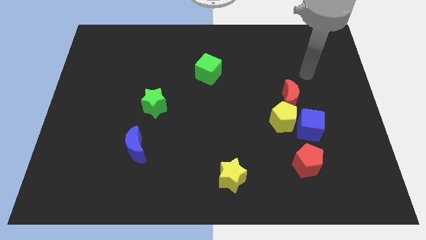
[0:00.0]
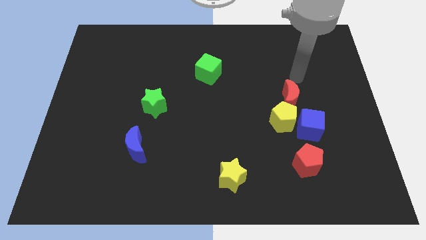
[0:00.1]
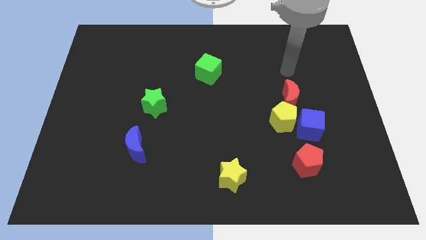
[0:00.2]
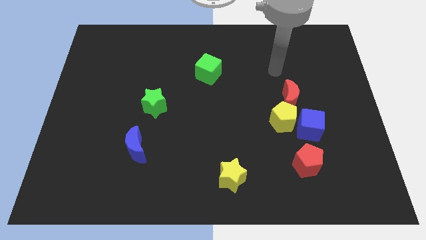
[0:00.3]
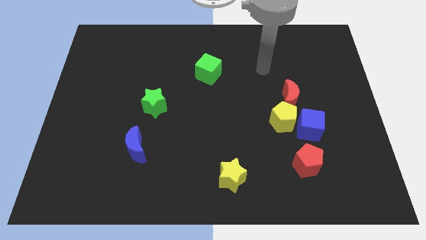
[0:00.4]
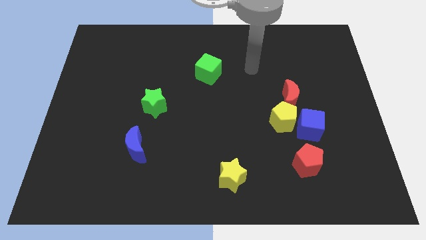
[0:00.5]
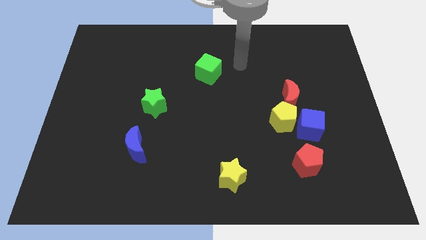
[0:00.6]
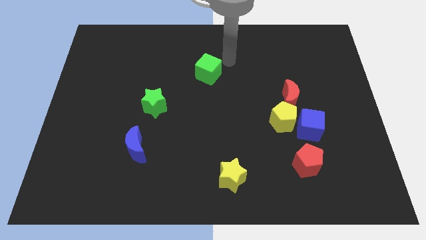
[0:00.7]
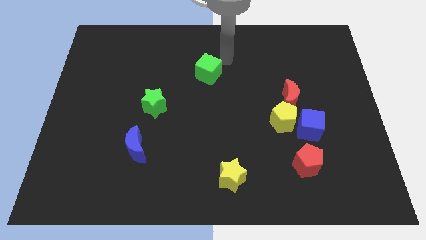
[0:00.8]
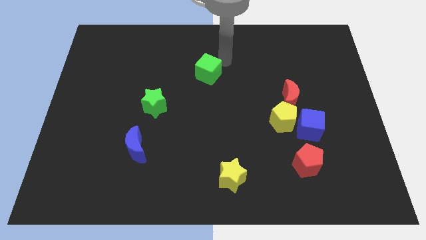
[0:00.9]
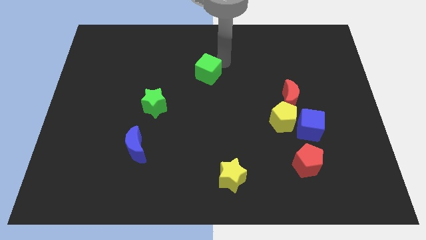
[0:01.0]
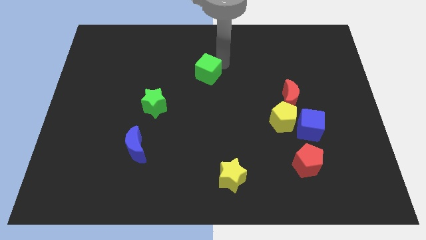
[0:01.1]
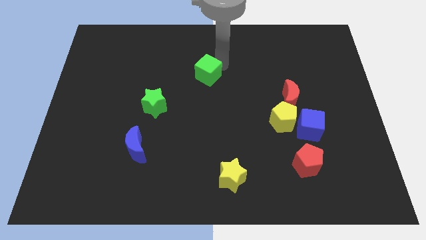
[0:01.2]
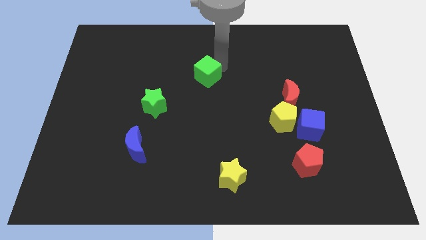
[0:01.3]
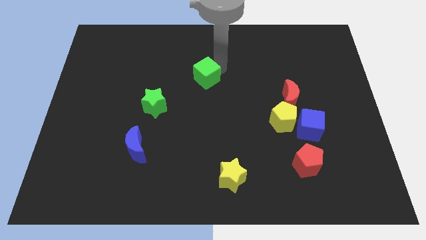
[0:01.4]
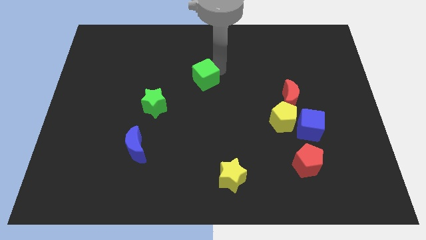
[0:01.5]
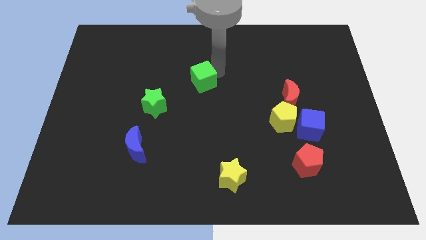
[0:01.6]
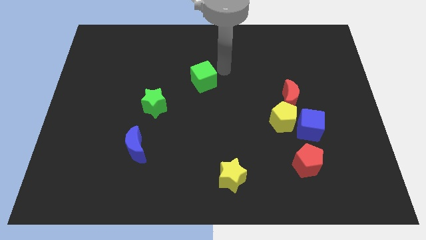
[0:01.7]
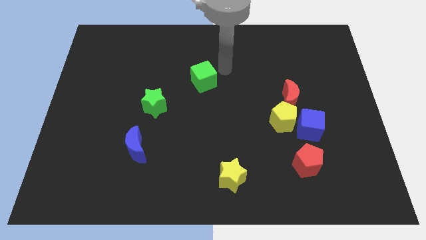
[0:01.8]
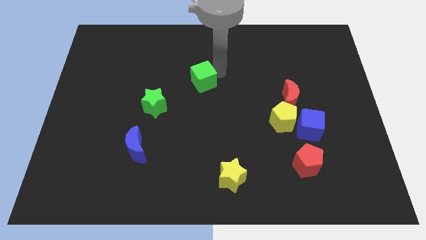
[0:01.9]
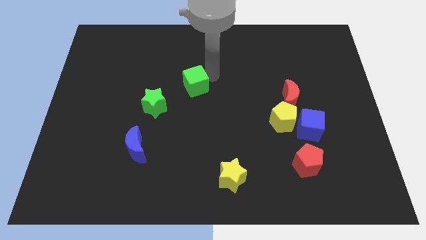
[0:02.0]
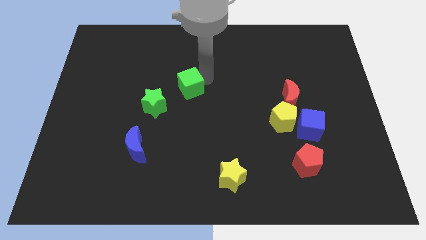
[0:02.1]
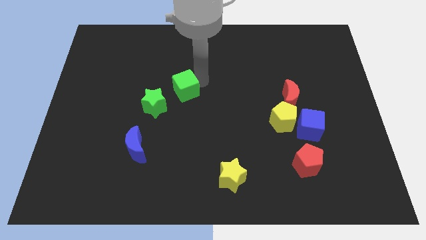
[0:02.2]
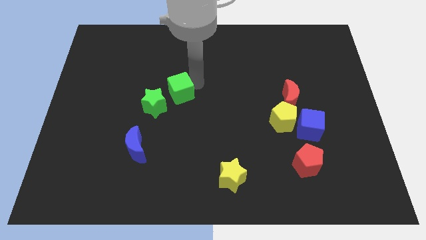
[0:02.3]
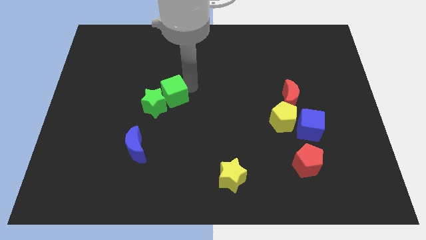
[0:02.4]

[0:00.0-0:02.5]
push the green cube towards the green star

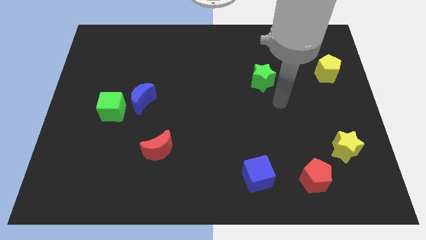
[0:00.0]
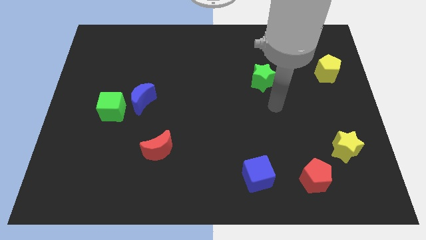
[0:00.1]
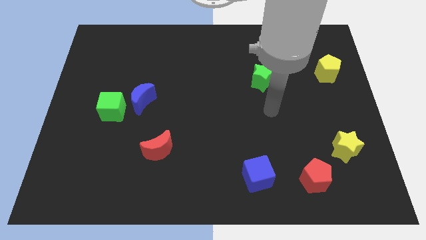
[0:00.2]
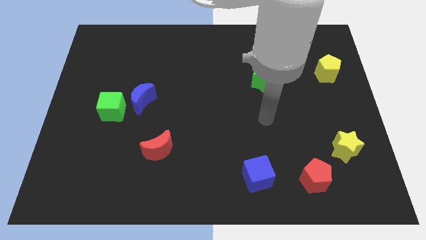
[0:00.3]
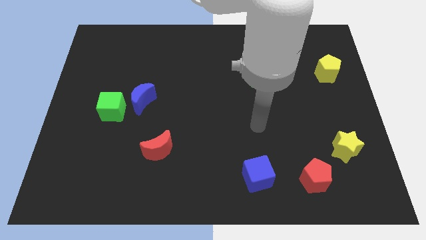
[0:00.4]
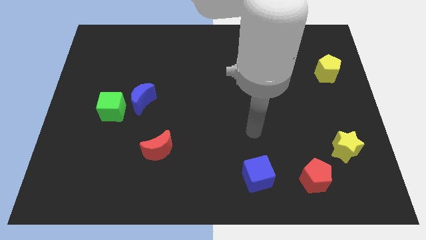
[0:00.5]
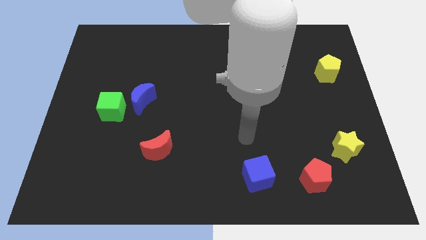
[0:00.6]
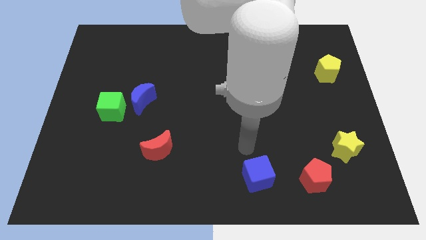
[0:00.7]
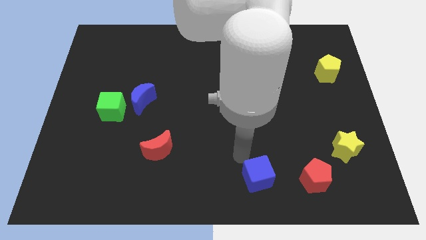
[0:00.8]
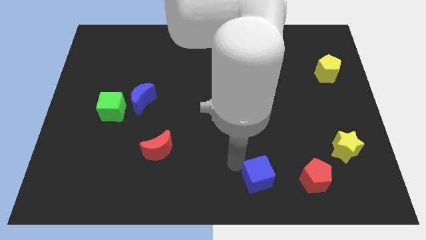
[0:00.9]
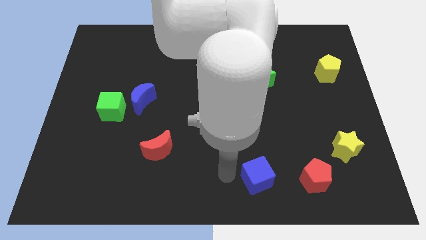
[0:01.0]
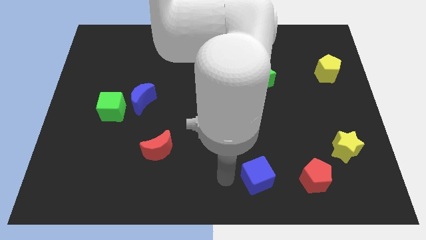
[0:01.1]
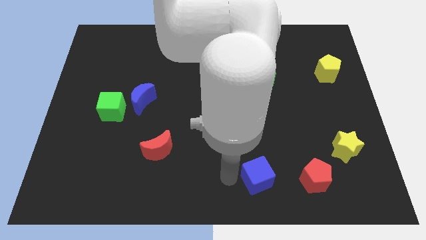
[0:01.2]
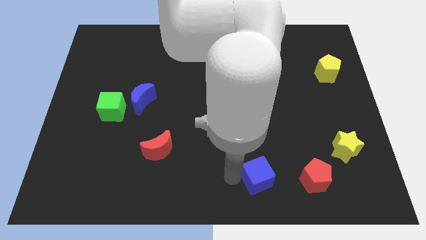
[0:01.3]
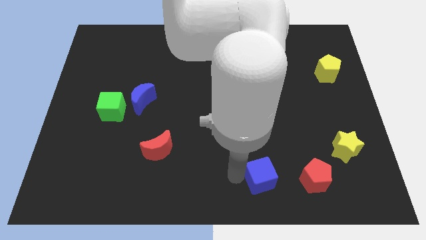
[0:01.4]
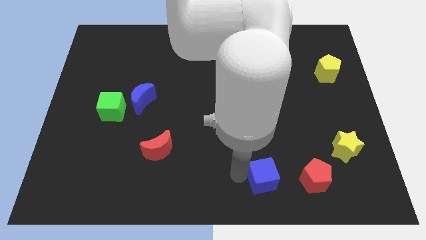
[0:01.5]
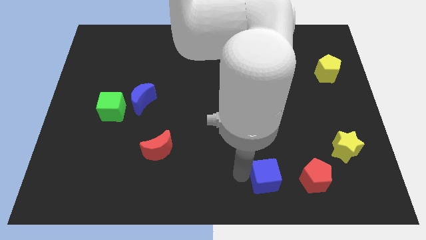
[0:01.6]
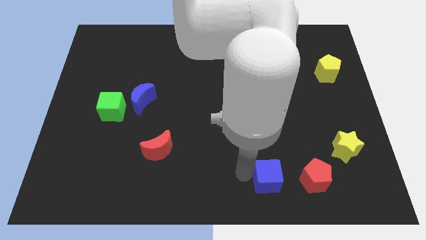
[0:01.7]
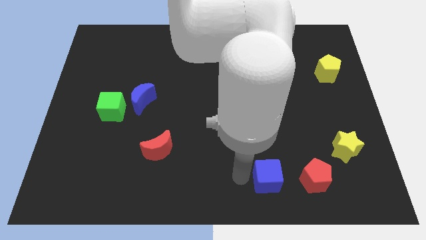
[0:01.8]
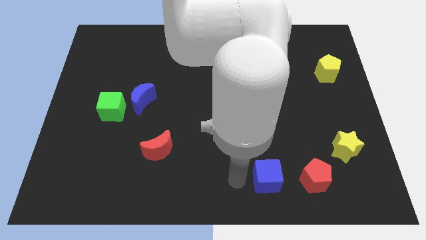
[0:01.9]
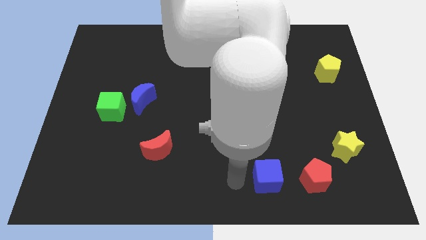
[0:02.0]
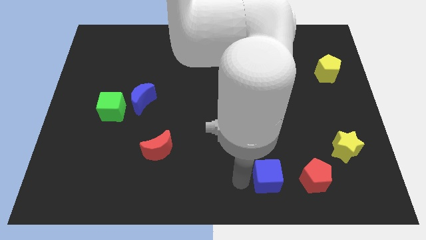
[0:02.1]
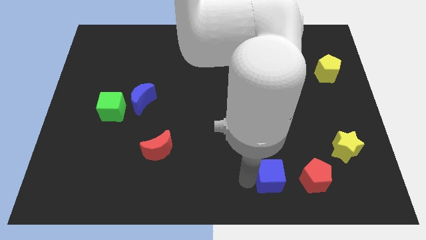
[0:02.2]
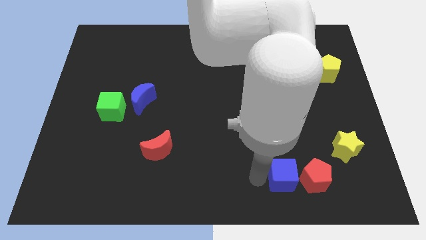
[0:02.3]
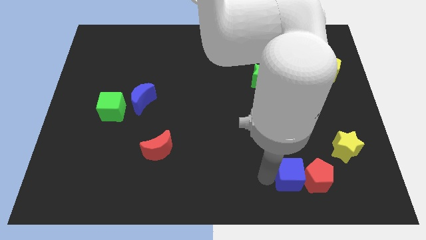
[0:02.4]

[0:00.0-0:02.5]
slide the blue cube close to the red pentagon

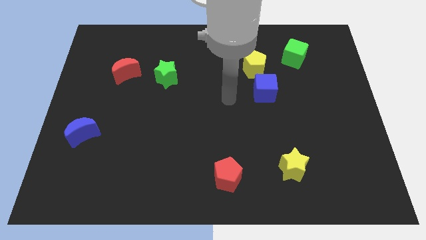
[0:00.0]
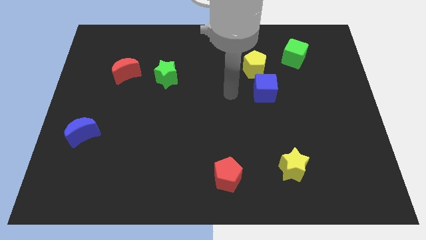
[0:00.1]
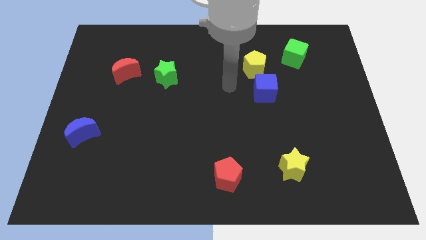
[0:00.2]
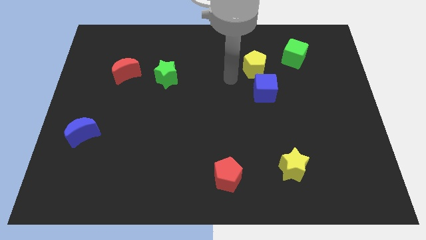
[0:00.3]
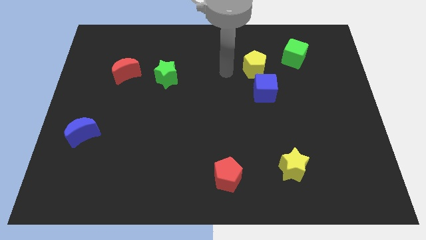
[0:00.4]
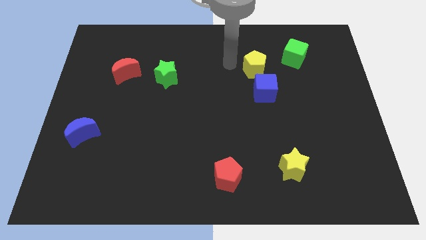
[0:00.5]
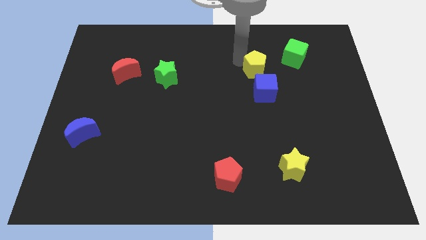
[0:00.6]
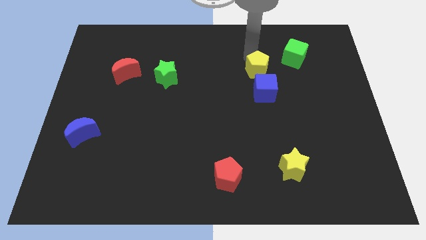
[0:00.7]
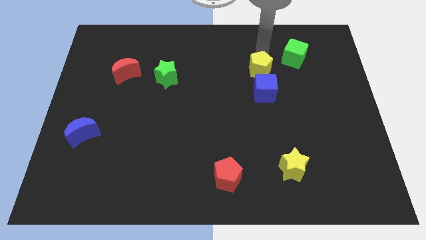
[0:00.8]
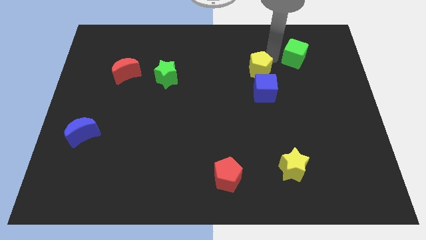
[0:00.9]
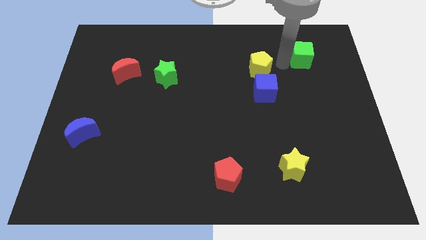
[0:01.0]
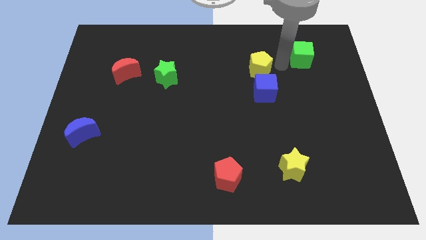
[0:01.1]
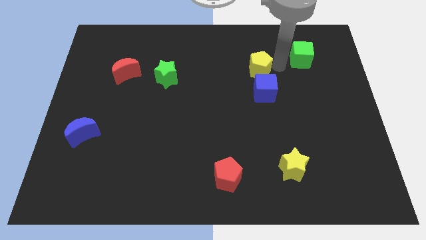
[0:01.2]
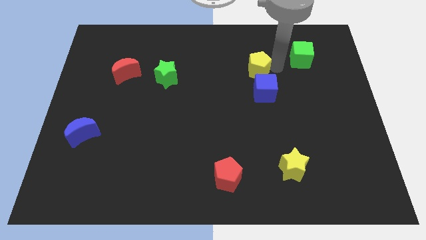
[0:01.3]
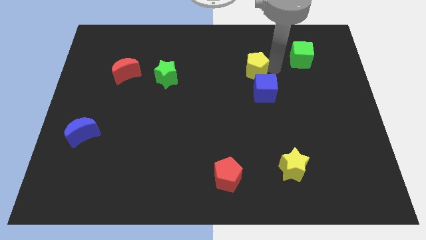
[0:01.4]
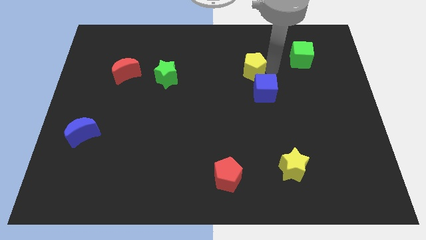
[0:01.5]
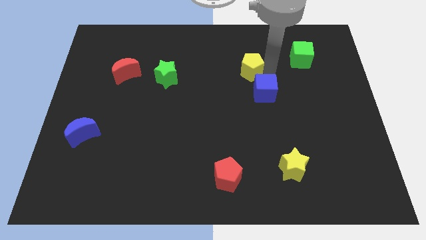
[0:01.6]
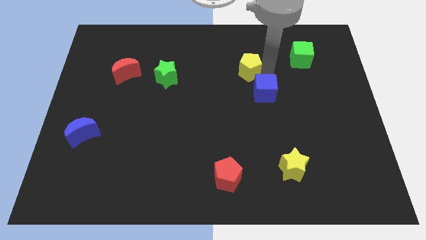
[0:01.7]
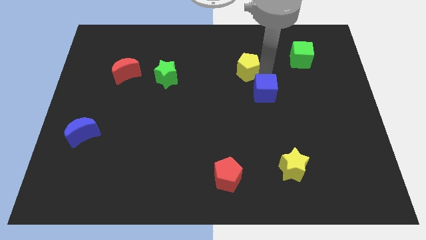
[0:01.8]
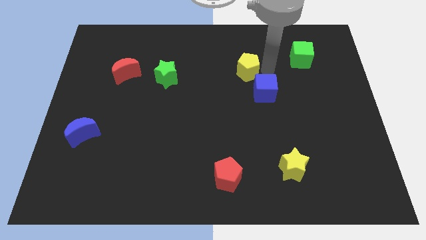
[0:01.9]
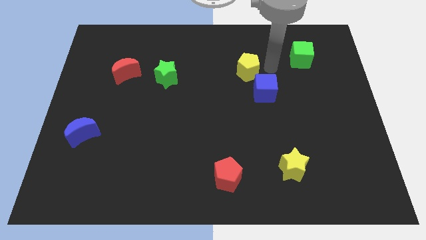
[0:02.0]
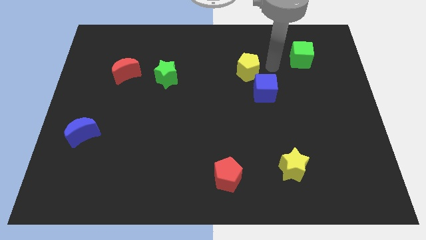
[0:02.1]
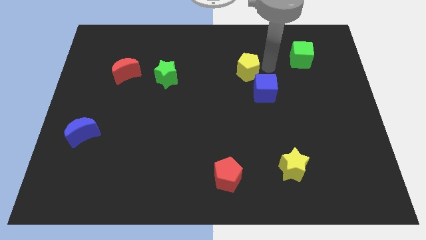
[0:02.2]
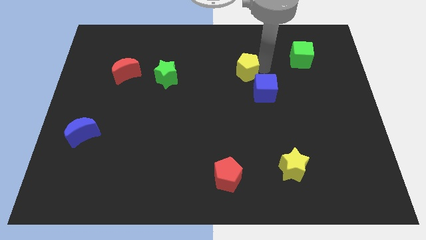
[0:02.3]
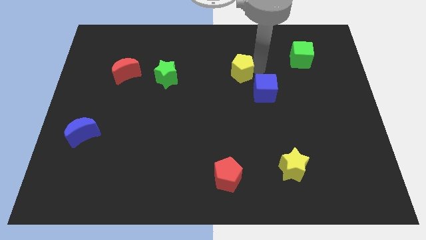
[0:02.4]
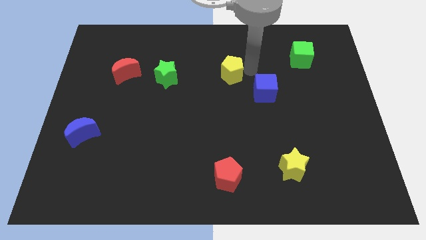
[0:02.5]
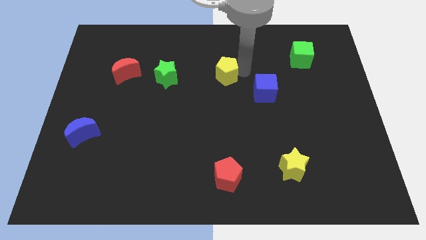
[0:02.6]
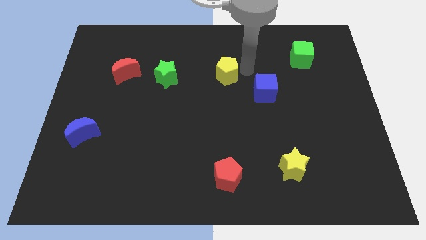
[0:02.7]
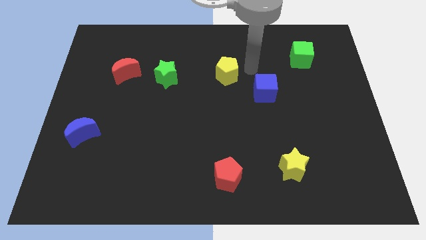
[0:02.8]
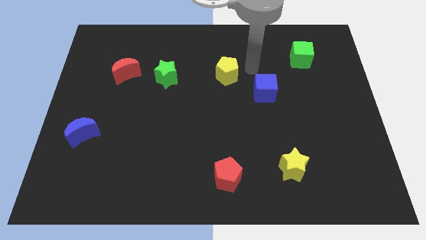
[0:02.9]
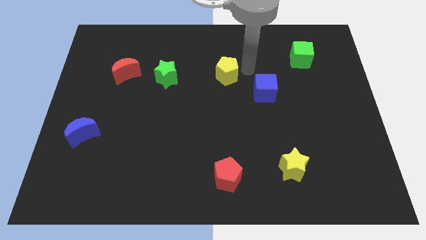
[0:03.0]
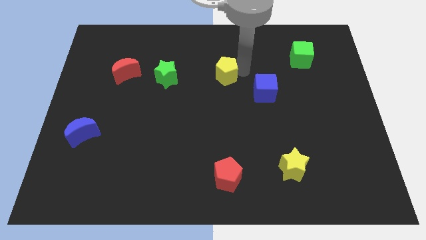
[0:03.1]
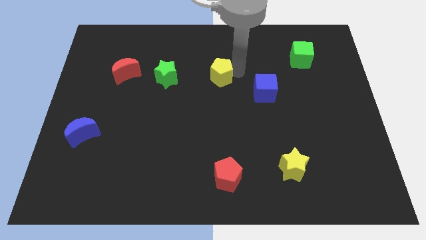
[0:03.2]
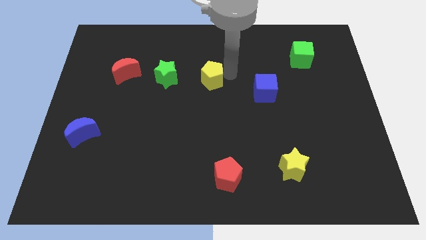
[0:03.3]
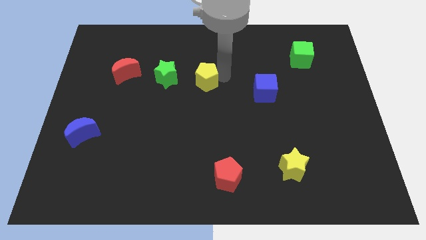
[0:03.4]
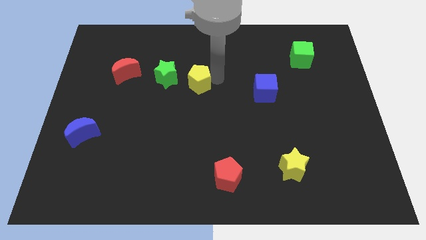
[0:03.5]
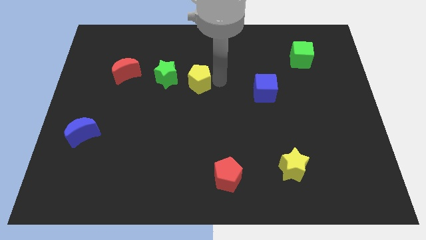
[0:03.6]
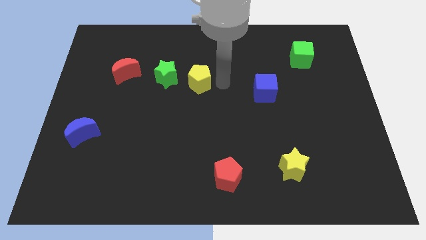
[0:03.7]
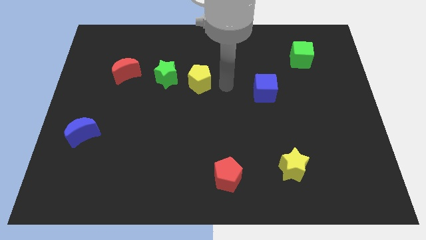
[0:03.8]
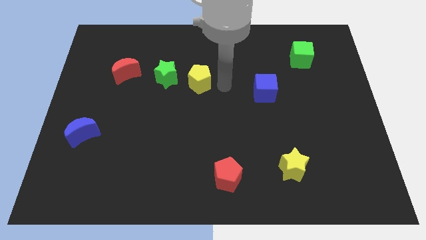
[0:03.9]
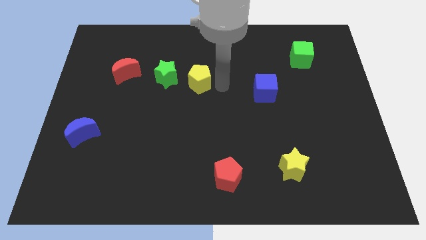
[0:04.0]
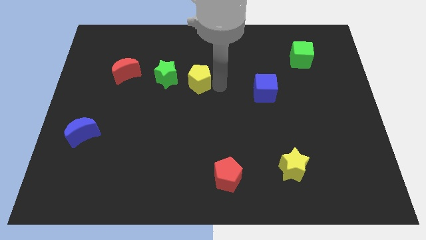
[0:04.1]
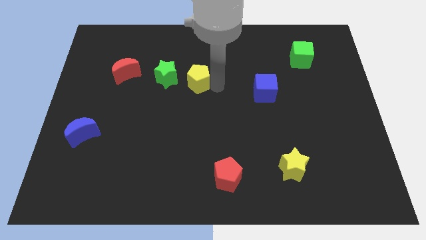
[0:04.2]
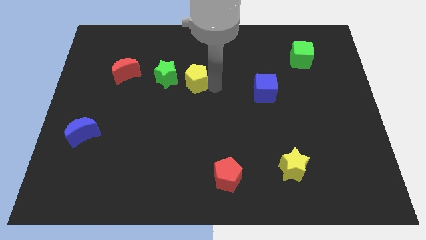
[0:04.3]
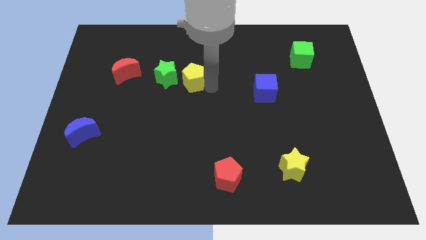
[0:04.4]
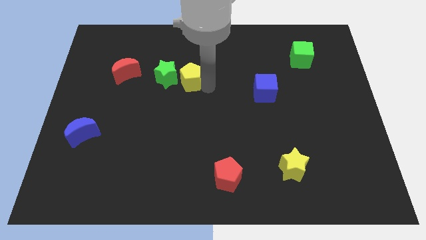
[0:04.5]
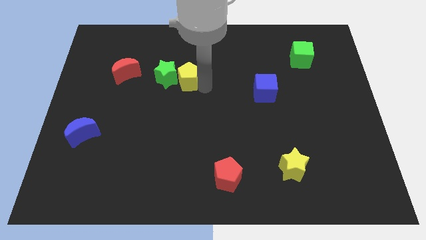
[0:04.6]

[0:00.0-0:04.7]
slide the yellow pentagon towards the green star
